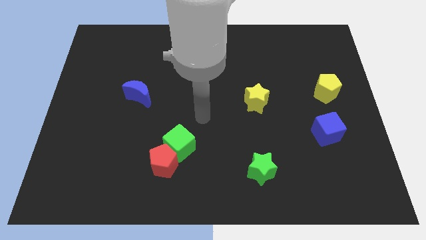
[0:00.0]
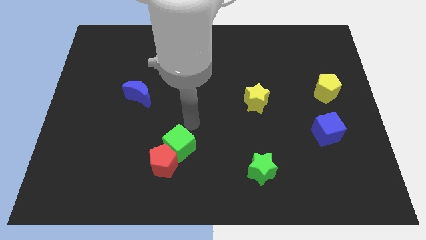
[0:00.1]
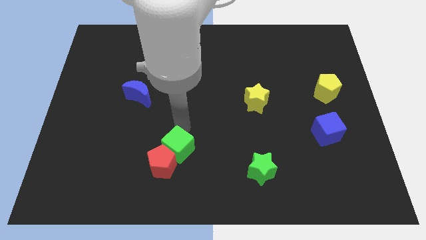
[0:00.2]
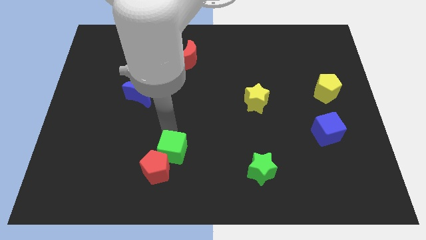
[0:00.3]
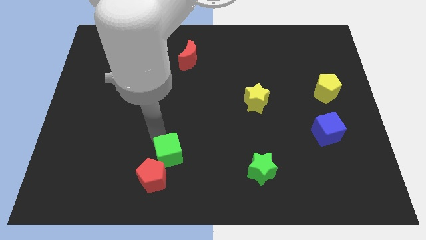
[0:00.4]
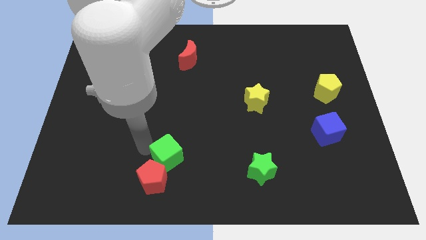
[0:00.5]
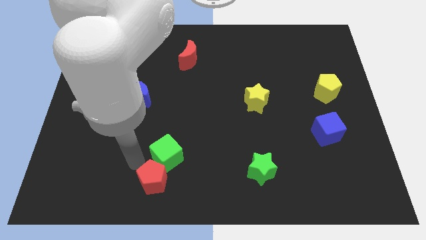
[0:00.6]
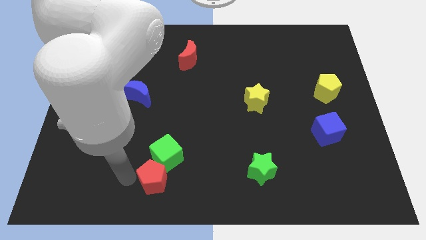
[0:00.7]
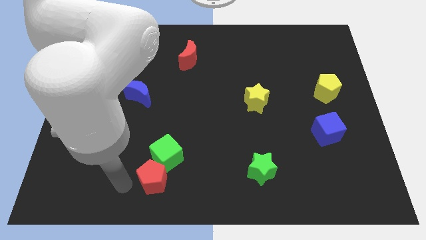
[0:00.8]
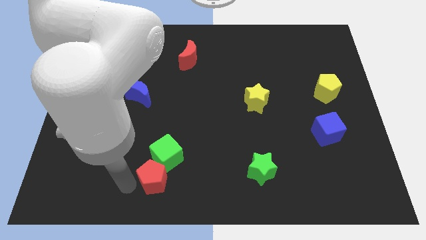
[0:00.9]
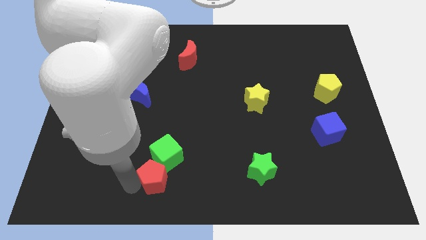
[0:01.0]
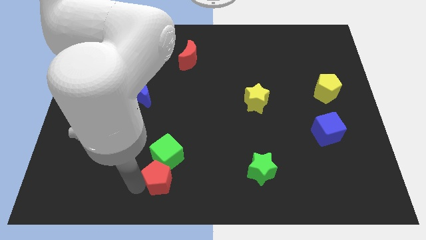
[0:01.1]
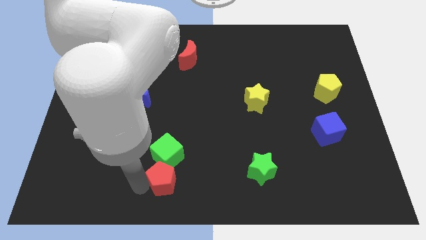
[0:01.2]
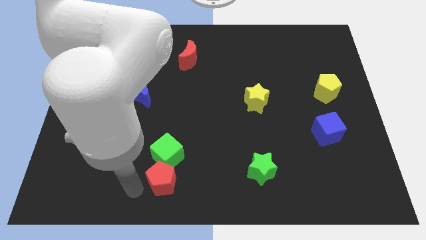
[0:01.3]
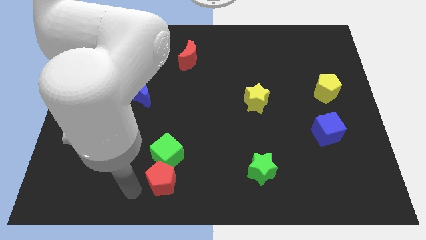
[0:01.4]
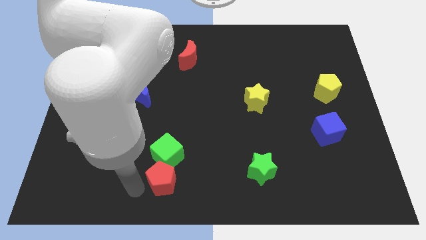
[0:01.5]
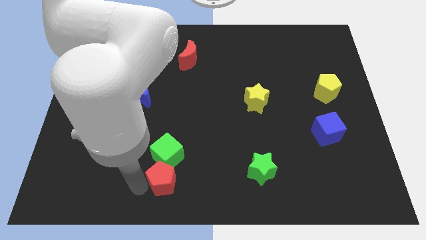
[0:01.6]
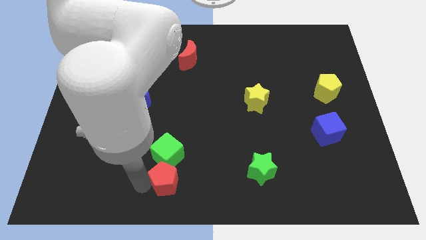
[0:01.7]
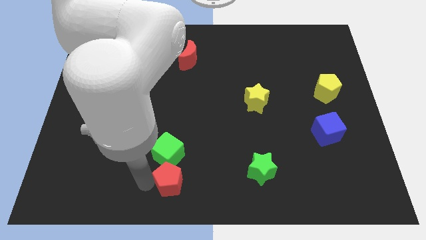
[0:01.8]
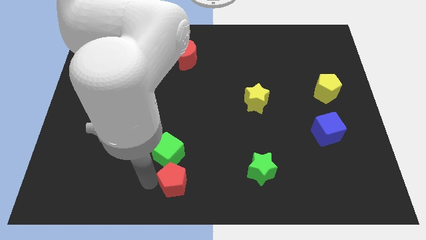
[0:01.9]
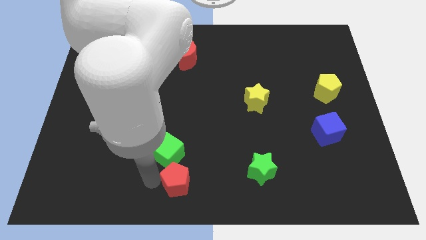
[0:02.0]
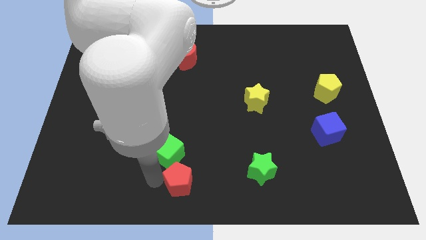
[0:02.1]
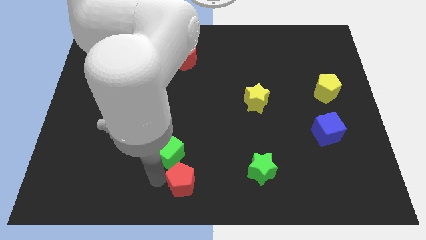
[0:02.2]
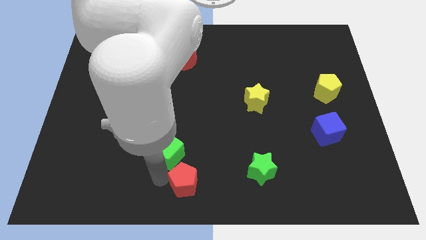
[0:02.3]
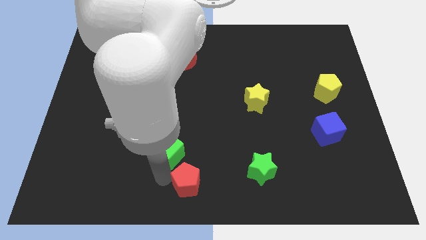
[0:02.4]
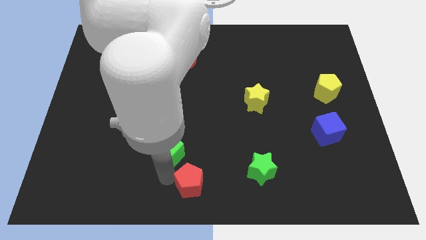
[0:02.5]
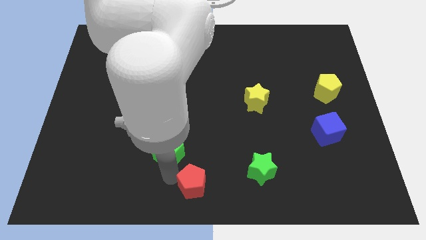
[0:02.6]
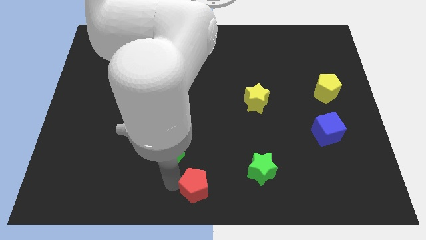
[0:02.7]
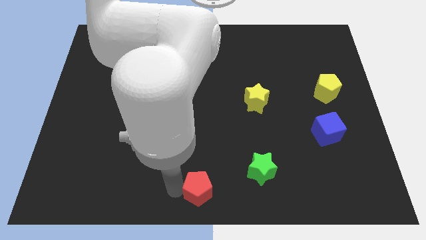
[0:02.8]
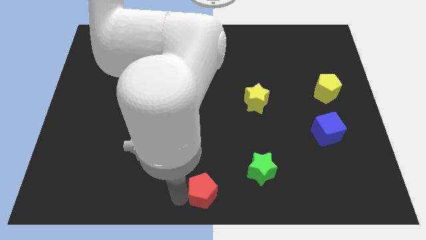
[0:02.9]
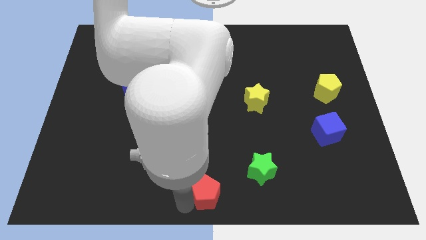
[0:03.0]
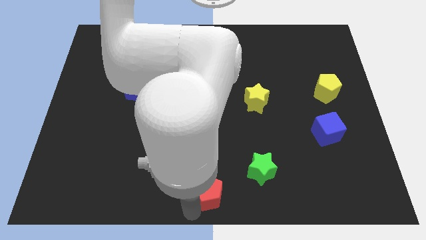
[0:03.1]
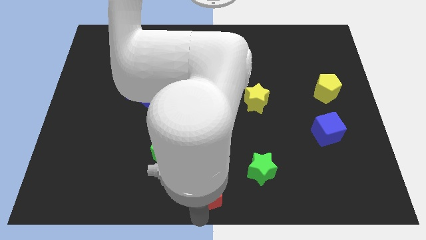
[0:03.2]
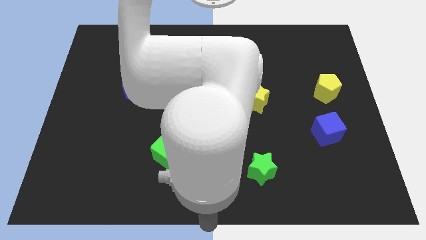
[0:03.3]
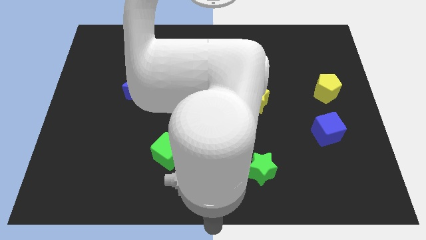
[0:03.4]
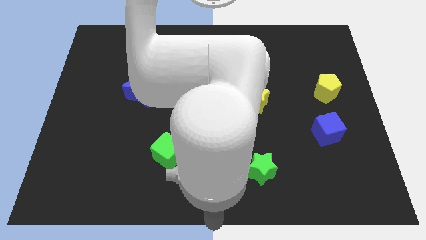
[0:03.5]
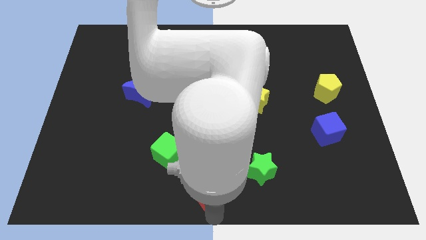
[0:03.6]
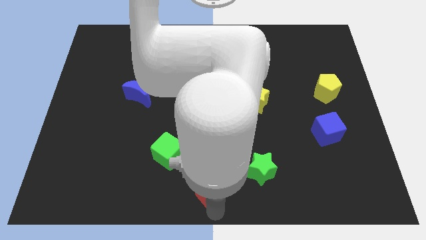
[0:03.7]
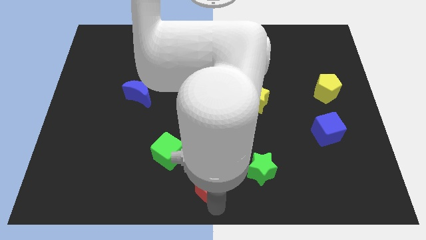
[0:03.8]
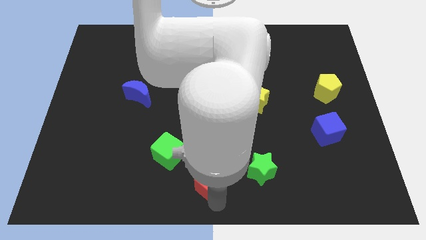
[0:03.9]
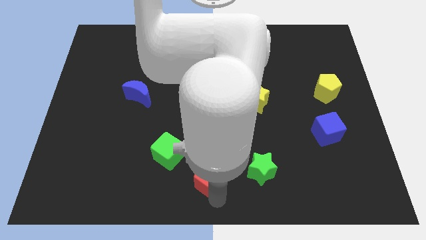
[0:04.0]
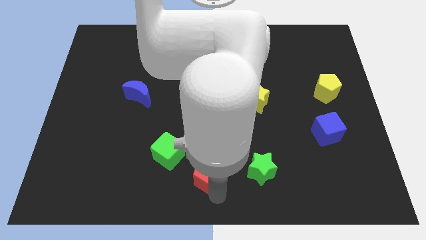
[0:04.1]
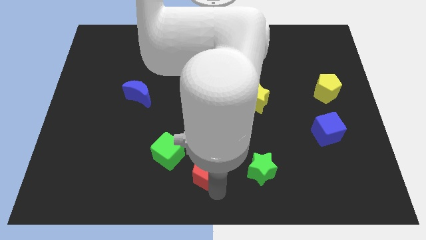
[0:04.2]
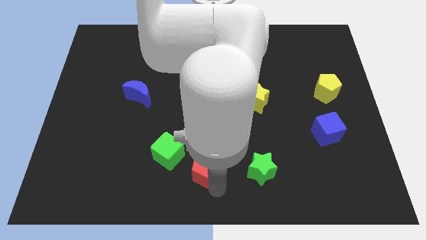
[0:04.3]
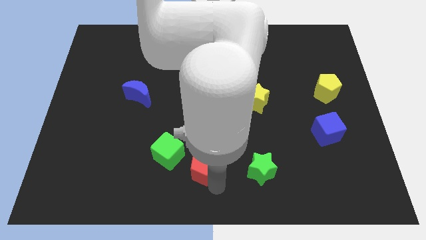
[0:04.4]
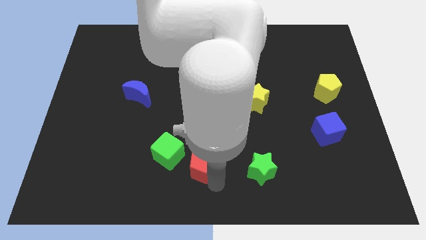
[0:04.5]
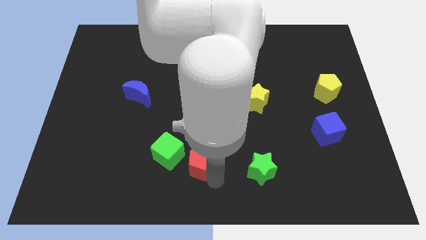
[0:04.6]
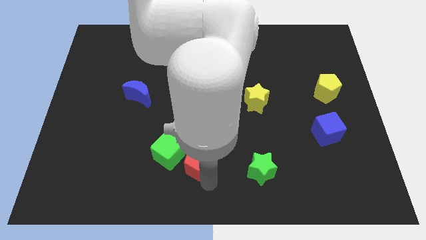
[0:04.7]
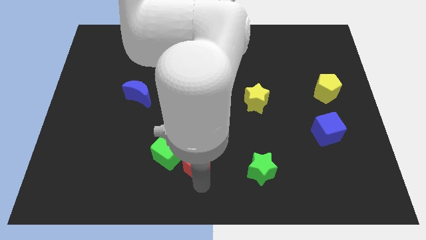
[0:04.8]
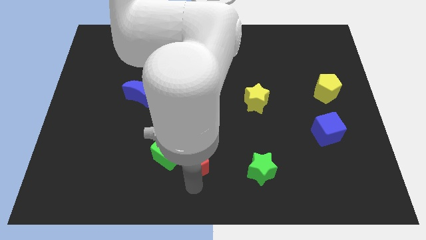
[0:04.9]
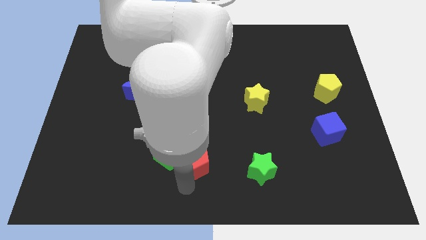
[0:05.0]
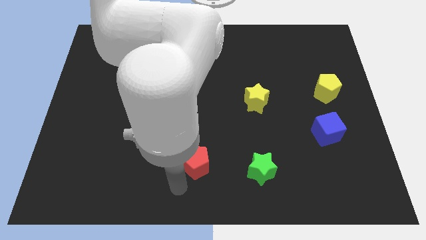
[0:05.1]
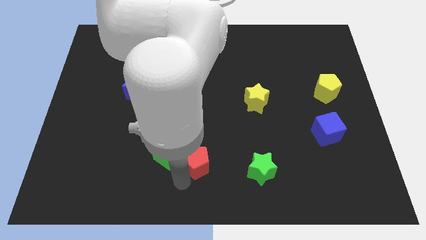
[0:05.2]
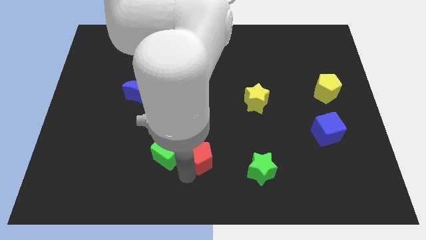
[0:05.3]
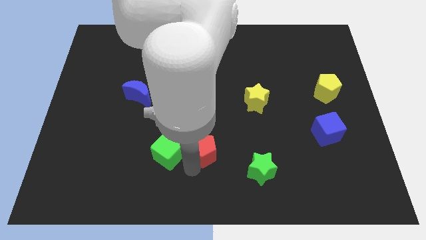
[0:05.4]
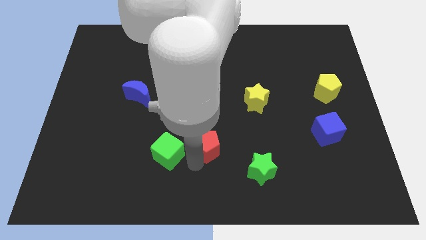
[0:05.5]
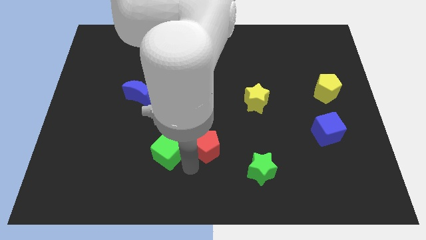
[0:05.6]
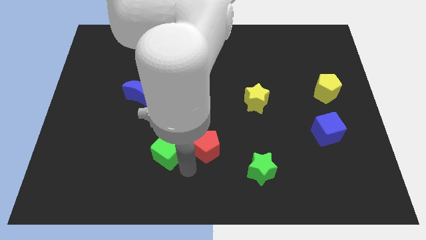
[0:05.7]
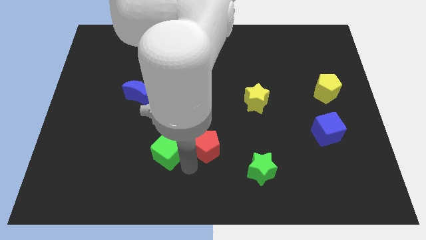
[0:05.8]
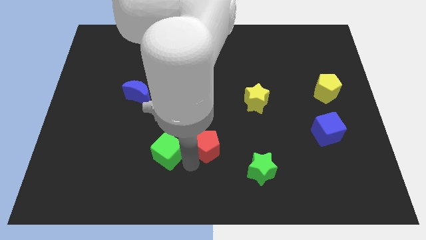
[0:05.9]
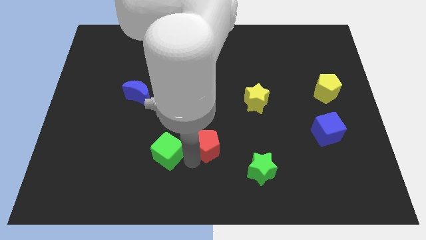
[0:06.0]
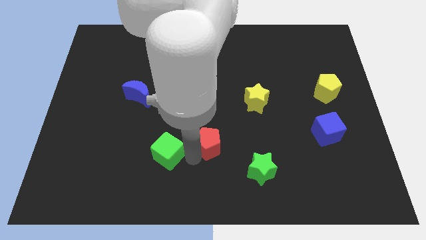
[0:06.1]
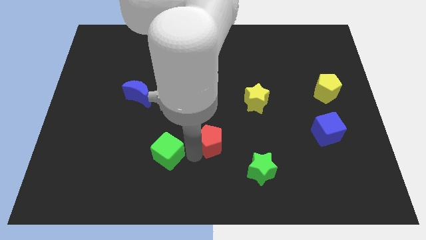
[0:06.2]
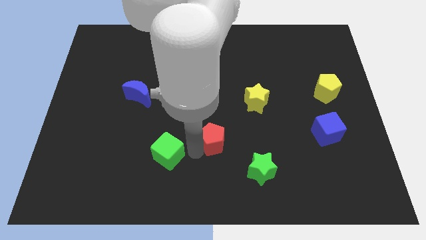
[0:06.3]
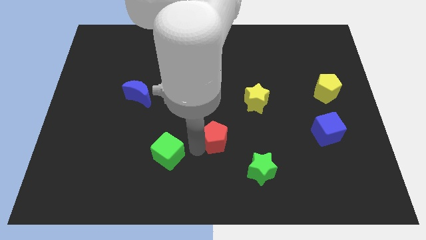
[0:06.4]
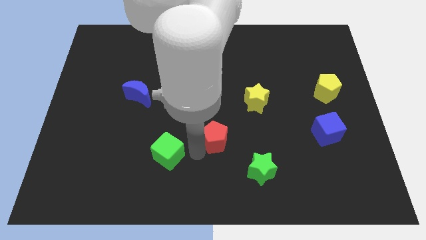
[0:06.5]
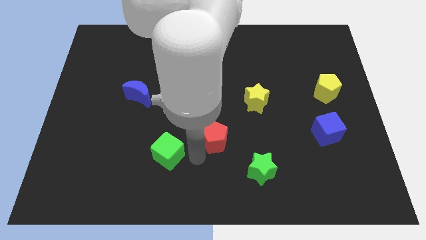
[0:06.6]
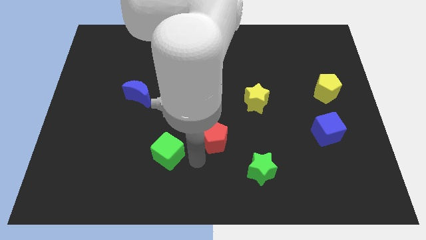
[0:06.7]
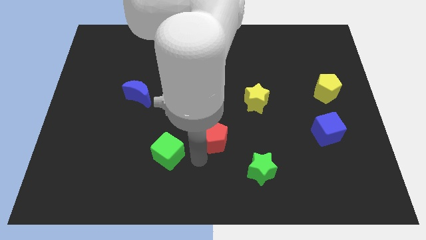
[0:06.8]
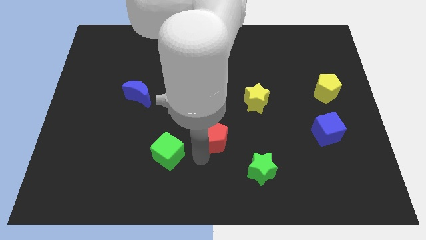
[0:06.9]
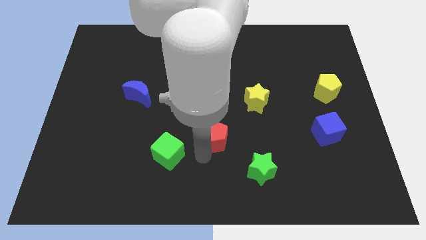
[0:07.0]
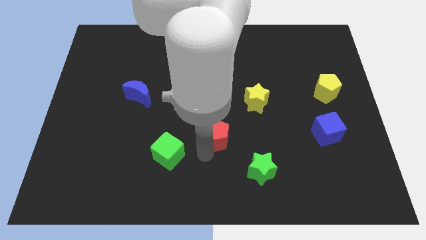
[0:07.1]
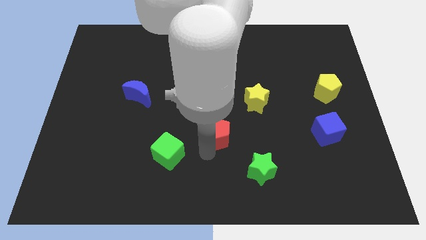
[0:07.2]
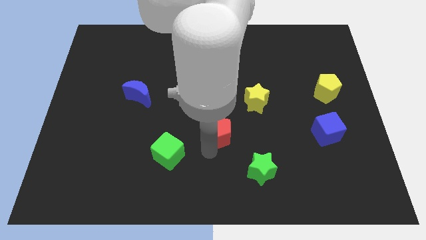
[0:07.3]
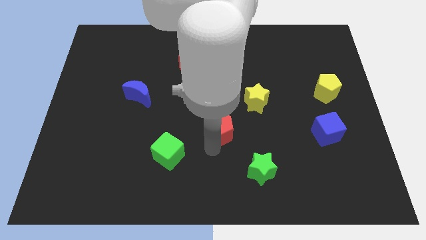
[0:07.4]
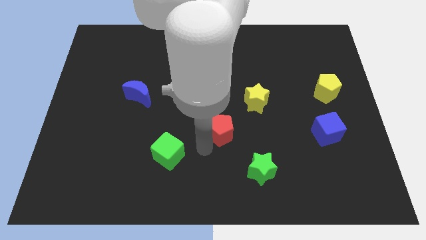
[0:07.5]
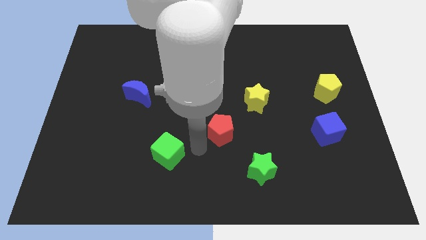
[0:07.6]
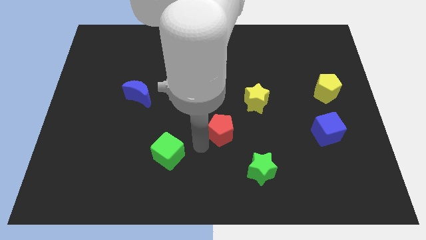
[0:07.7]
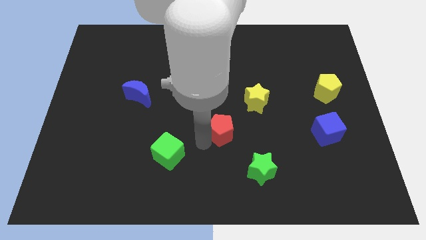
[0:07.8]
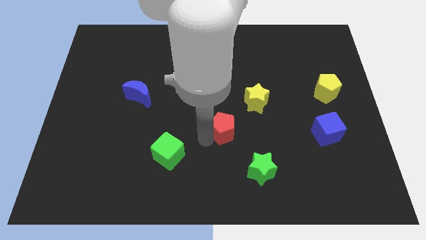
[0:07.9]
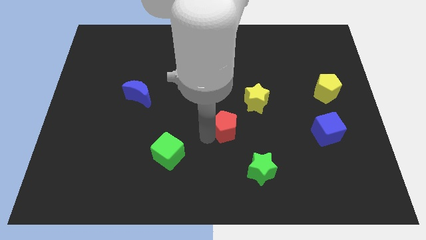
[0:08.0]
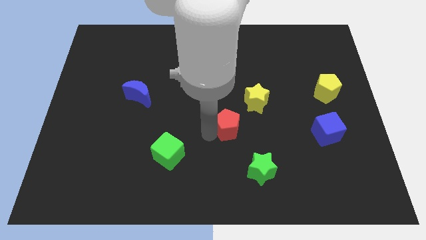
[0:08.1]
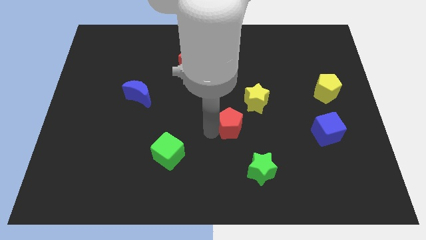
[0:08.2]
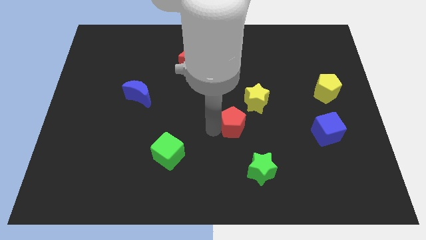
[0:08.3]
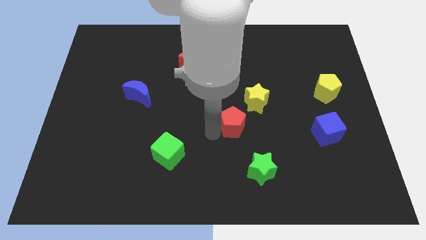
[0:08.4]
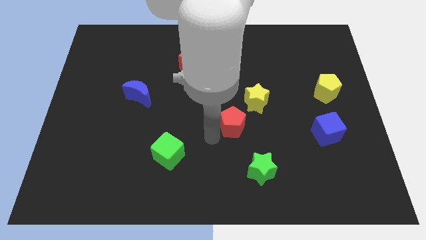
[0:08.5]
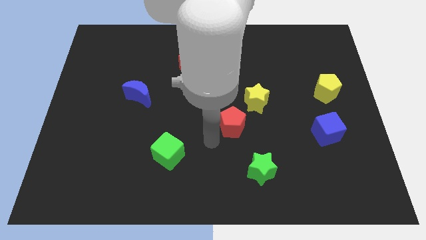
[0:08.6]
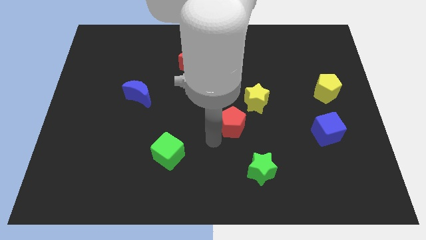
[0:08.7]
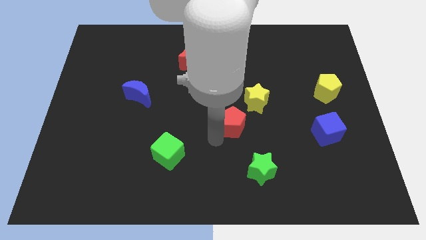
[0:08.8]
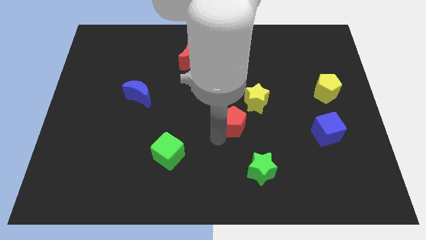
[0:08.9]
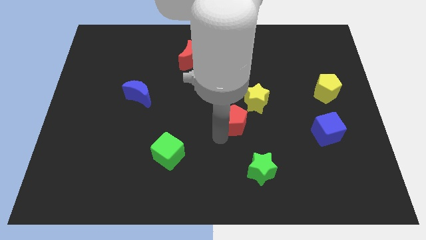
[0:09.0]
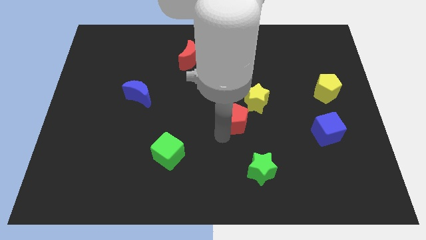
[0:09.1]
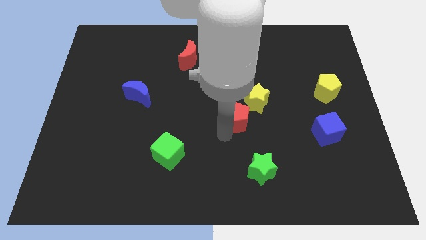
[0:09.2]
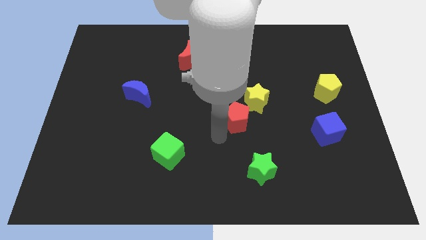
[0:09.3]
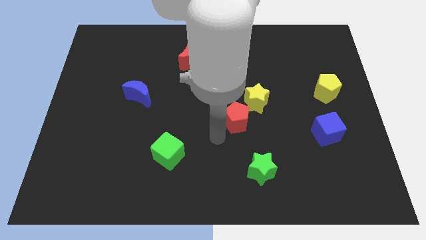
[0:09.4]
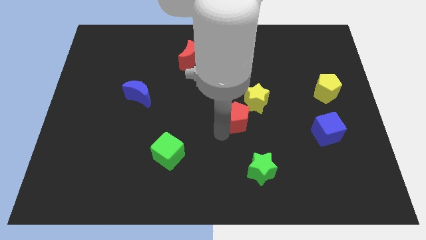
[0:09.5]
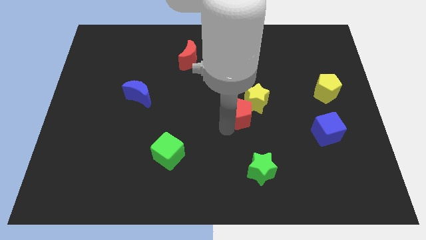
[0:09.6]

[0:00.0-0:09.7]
put the red pentagon towards the yellow star
